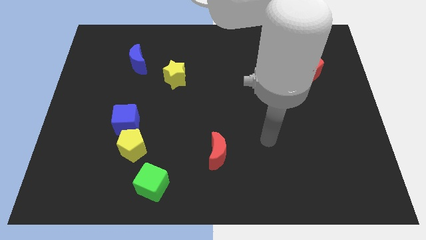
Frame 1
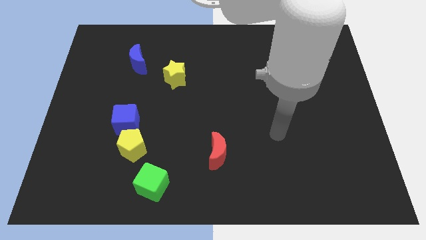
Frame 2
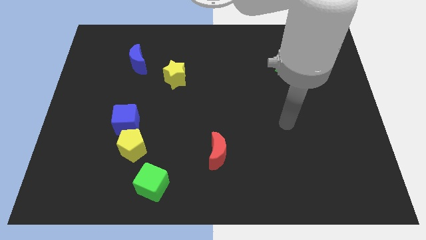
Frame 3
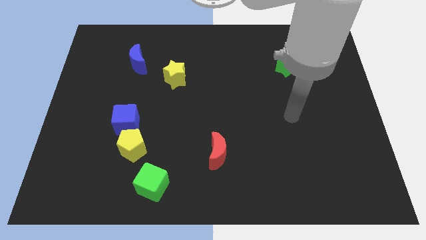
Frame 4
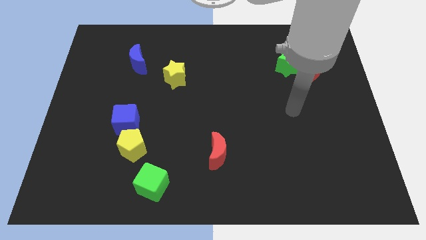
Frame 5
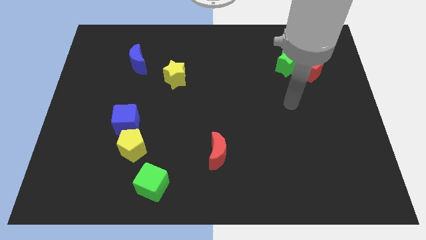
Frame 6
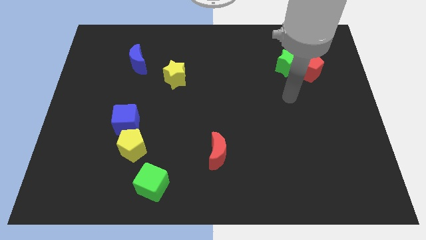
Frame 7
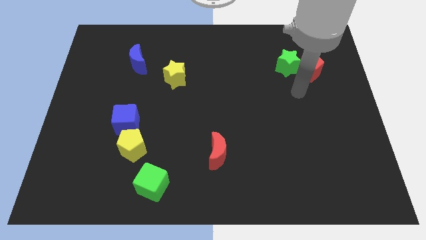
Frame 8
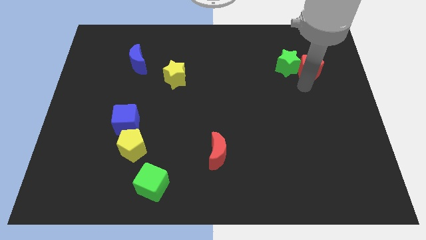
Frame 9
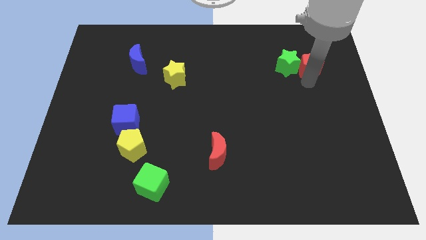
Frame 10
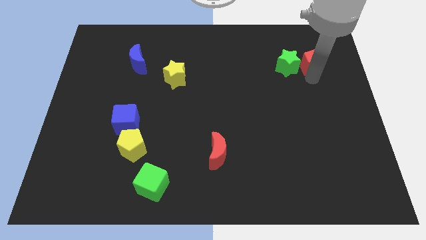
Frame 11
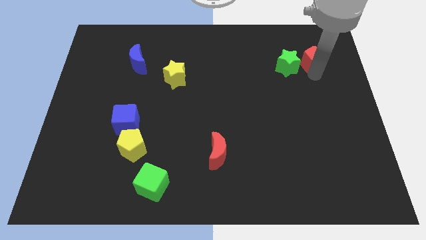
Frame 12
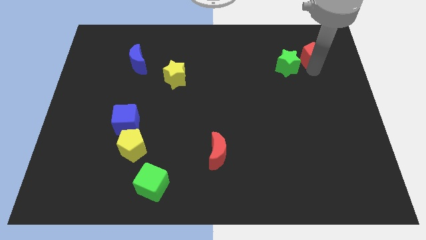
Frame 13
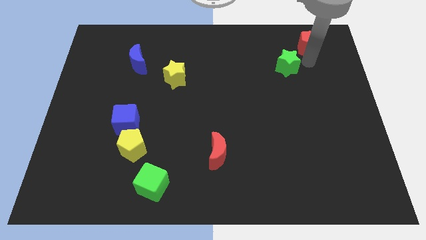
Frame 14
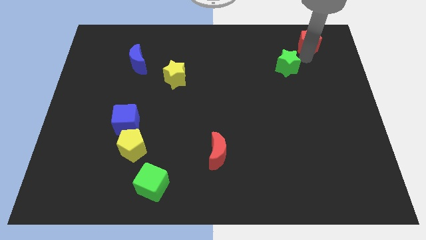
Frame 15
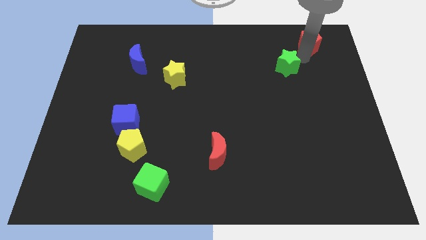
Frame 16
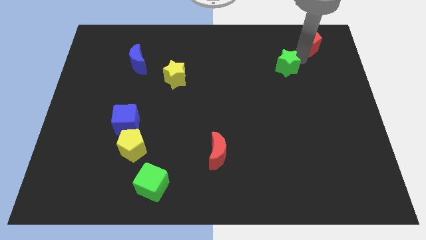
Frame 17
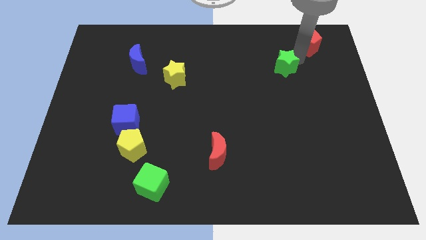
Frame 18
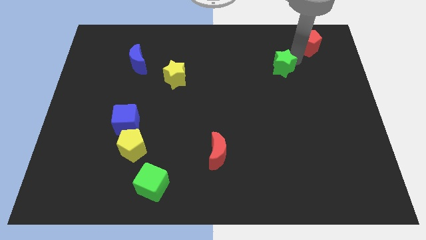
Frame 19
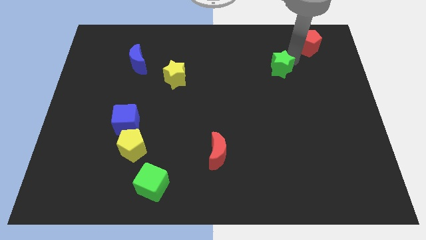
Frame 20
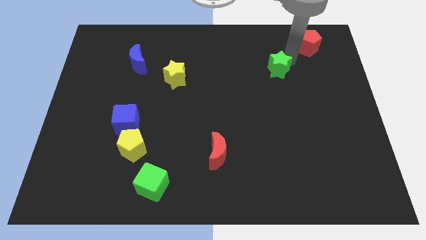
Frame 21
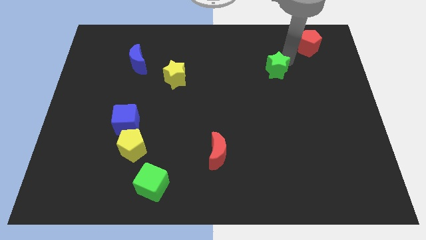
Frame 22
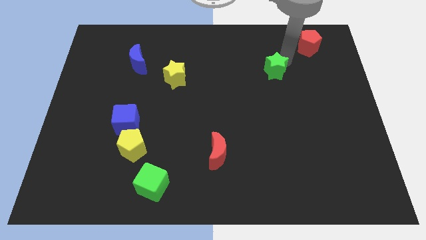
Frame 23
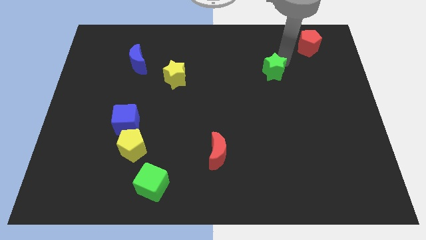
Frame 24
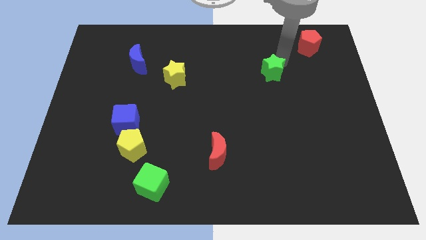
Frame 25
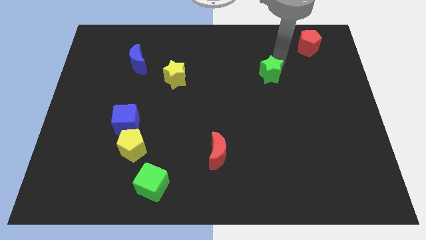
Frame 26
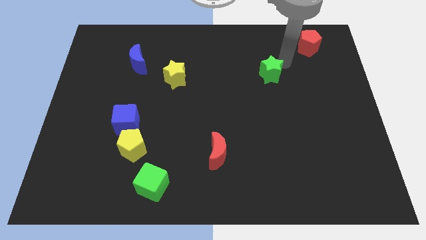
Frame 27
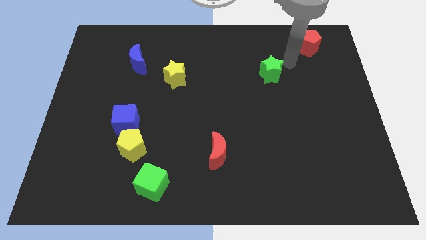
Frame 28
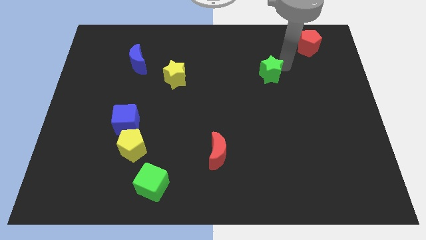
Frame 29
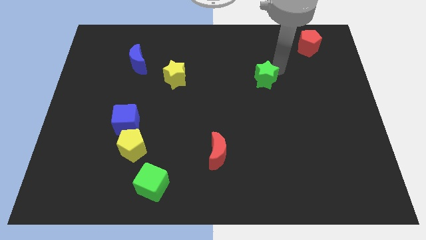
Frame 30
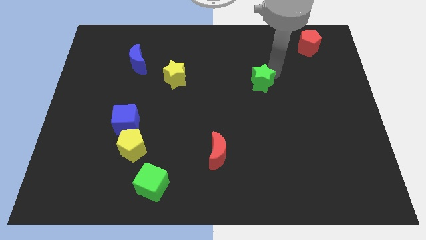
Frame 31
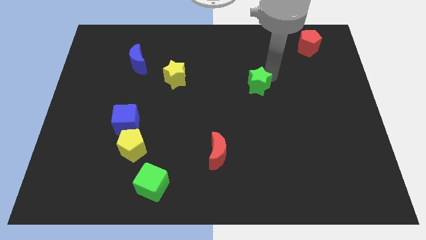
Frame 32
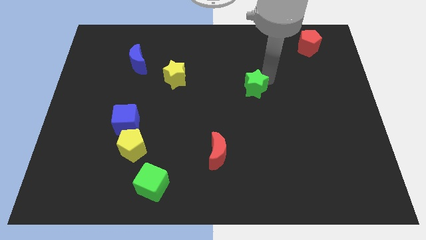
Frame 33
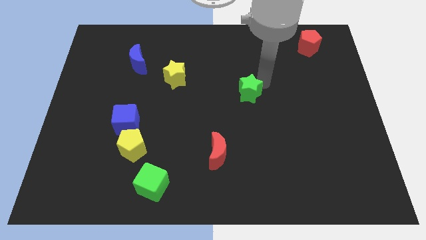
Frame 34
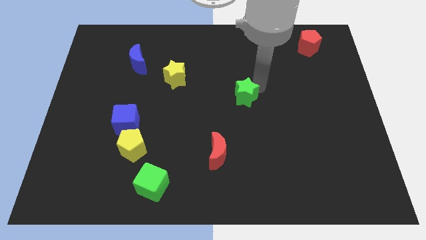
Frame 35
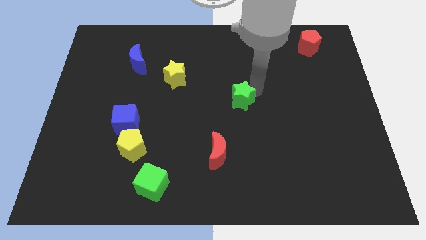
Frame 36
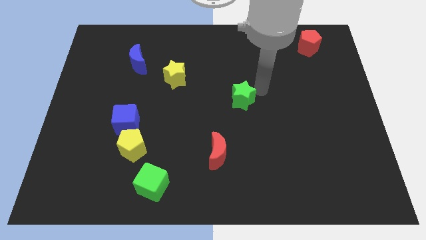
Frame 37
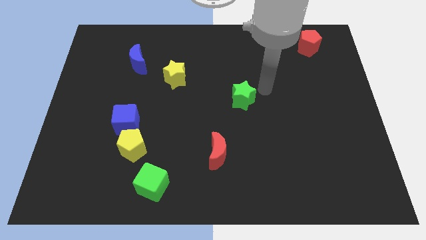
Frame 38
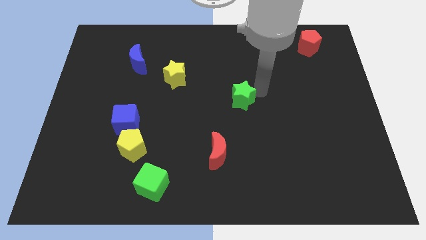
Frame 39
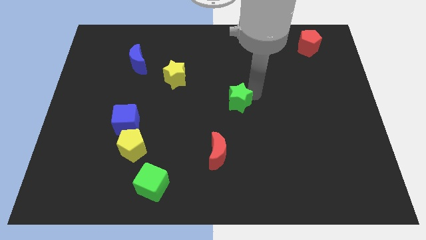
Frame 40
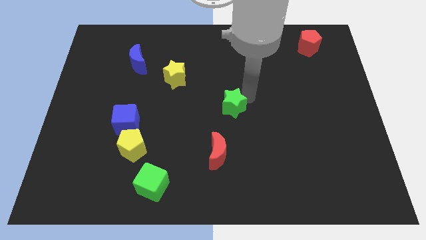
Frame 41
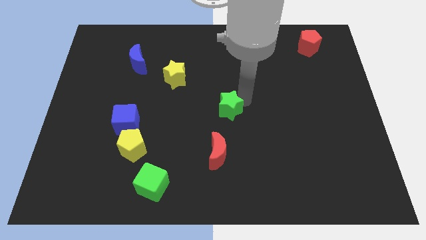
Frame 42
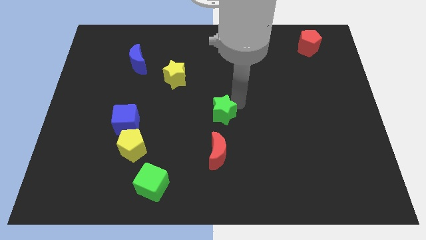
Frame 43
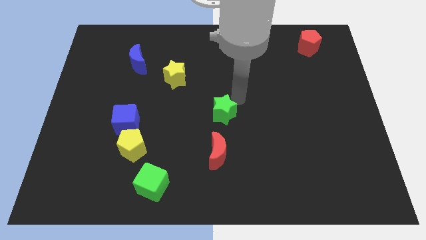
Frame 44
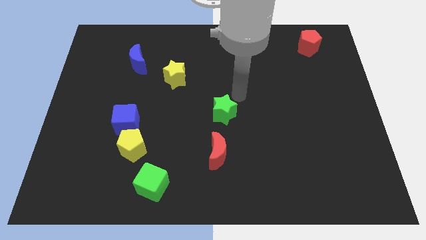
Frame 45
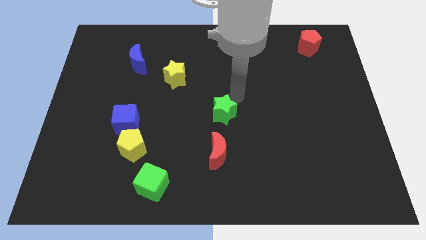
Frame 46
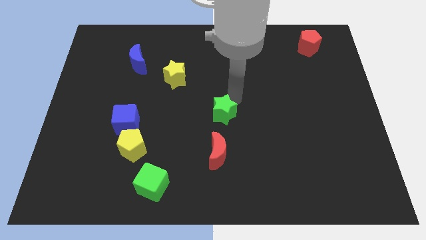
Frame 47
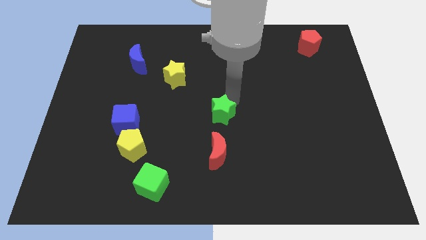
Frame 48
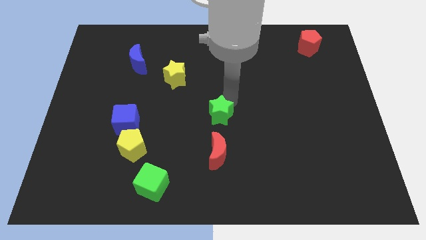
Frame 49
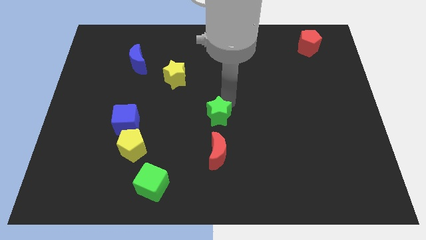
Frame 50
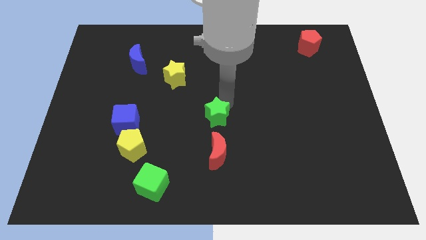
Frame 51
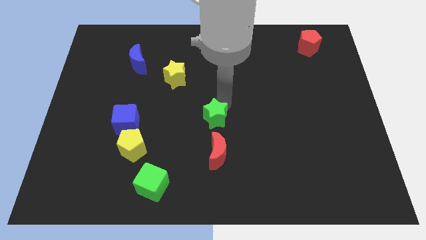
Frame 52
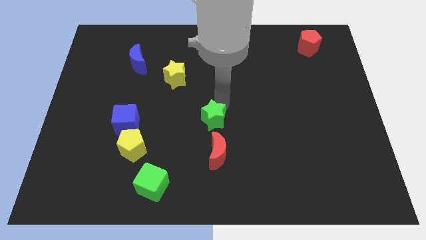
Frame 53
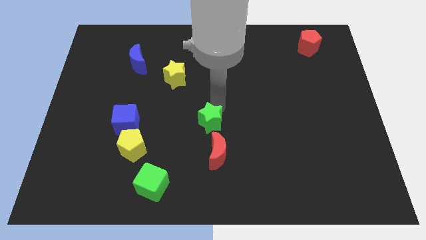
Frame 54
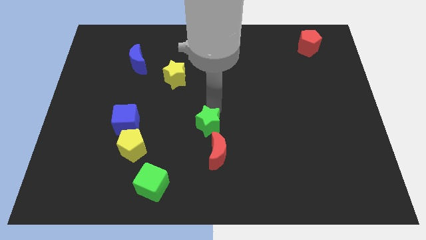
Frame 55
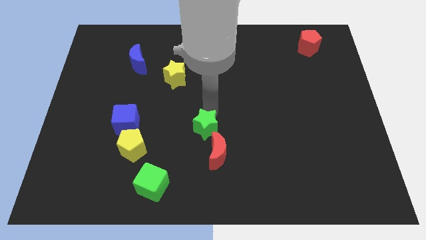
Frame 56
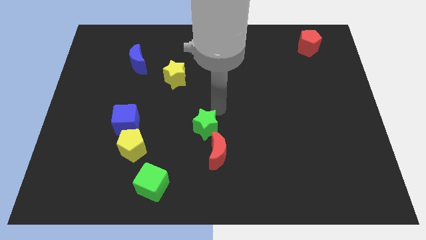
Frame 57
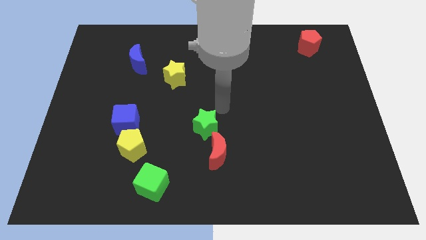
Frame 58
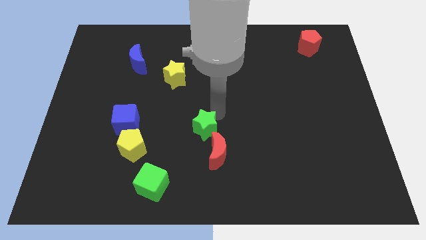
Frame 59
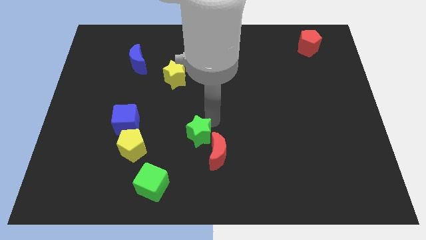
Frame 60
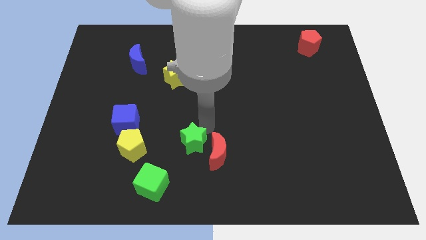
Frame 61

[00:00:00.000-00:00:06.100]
move the green star diagonally up and to the right of the green cube

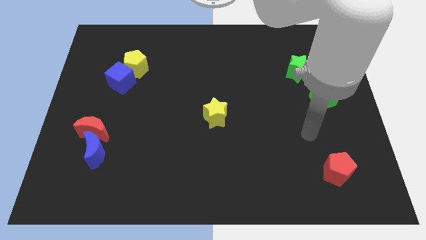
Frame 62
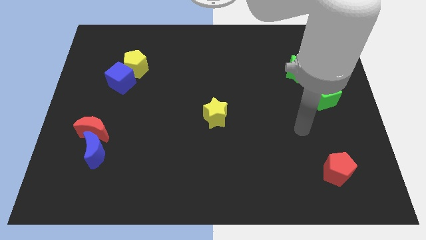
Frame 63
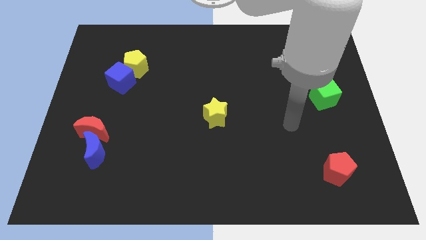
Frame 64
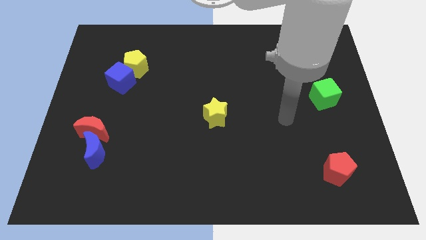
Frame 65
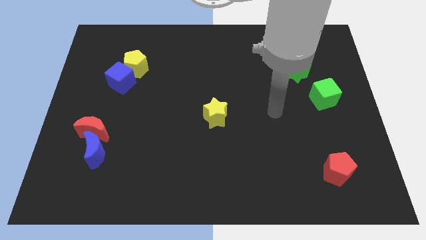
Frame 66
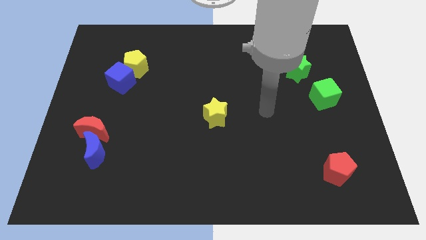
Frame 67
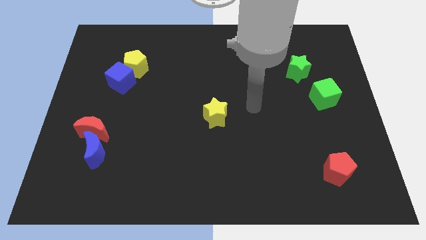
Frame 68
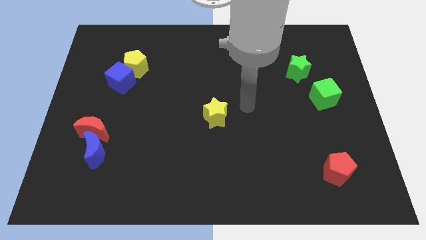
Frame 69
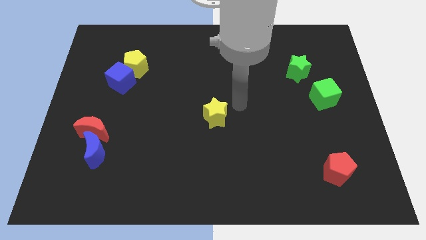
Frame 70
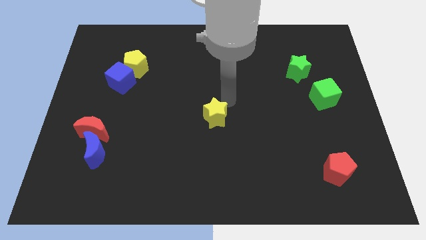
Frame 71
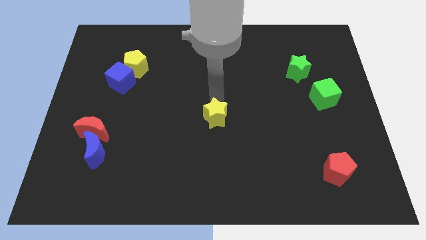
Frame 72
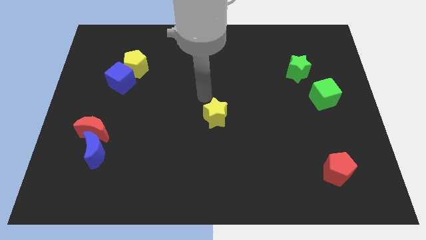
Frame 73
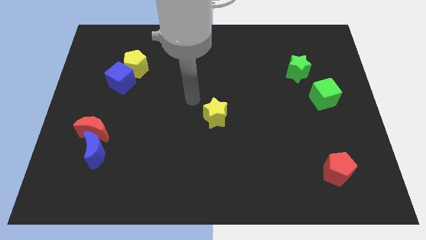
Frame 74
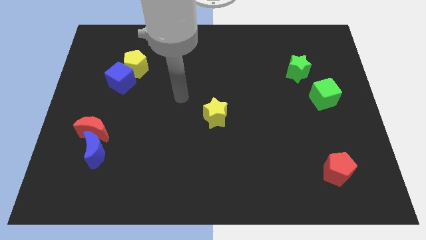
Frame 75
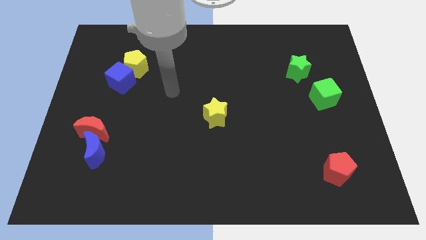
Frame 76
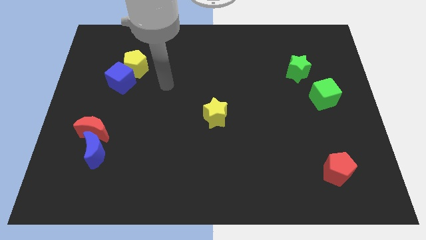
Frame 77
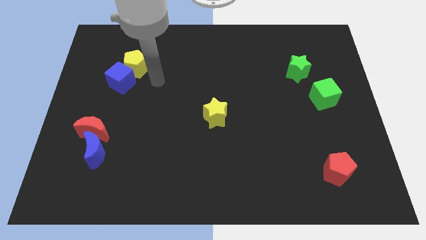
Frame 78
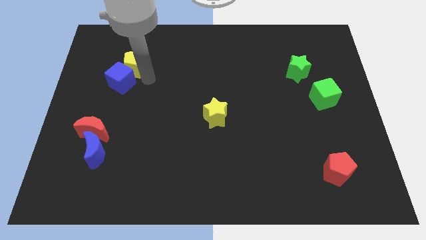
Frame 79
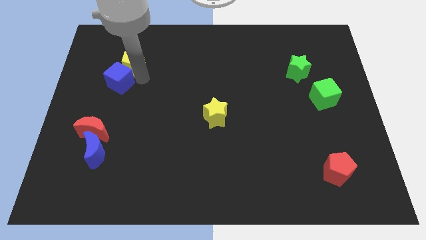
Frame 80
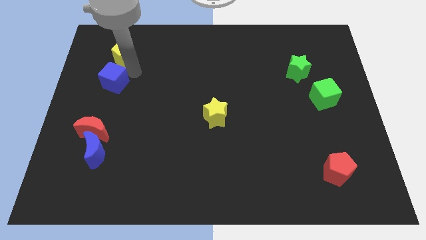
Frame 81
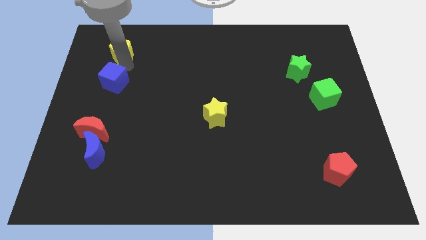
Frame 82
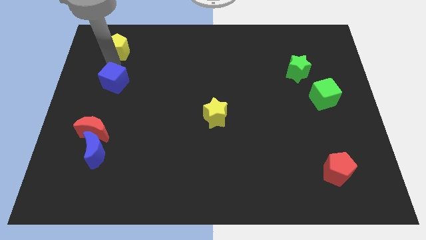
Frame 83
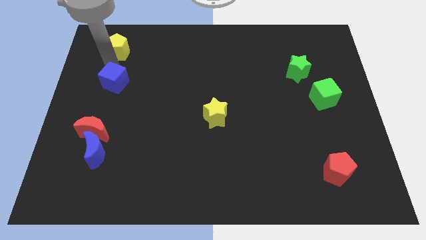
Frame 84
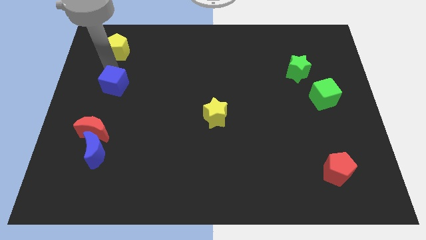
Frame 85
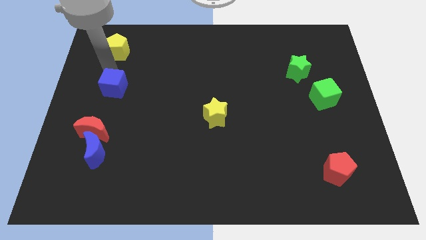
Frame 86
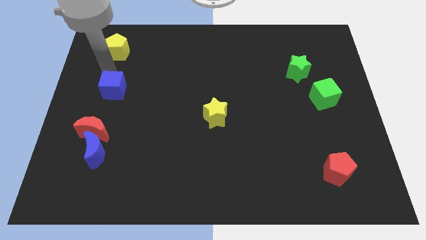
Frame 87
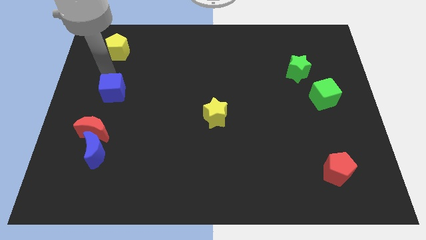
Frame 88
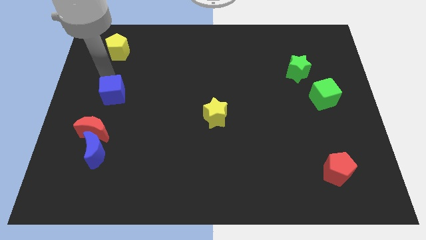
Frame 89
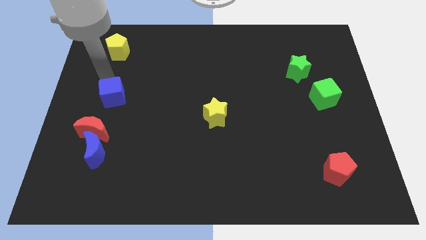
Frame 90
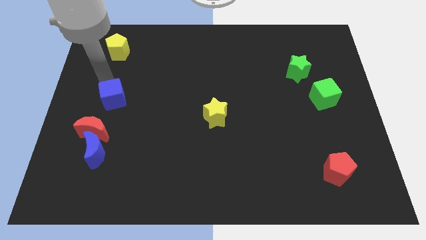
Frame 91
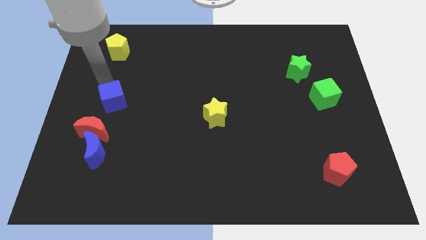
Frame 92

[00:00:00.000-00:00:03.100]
put the blue cube diagonally up and to the right of the red moon
